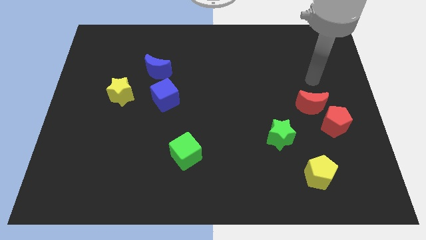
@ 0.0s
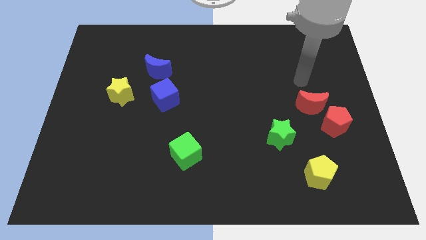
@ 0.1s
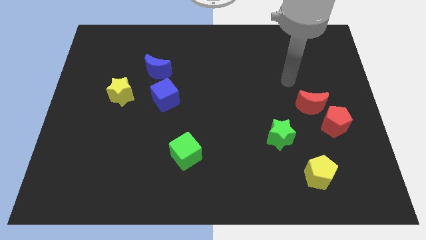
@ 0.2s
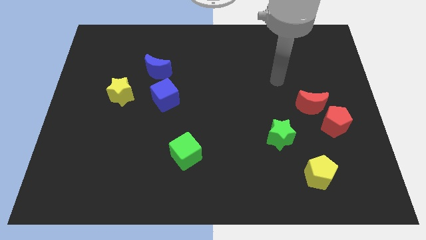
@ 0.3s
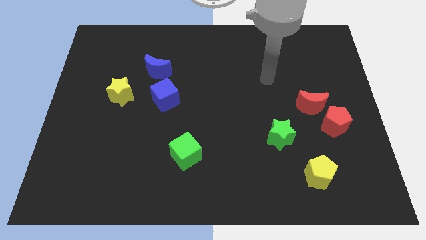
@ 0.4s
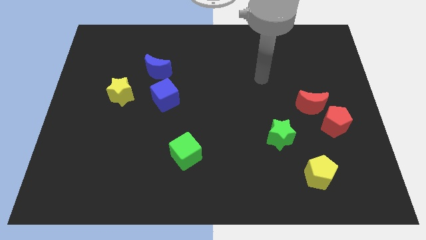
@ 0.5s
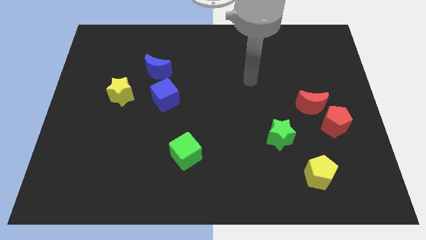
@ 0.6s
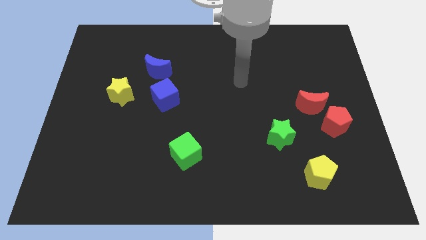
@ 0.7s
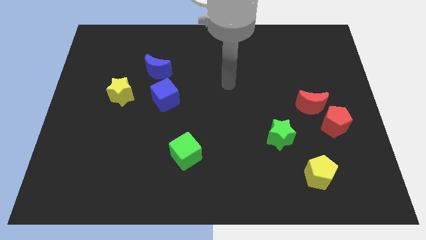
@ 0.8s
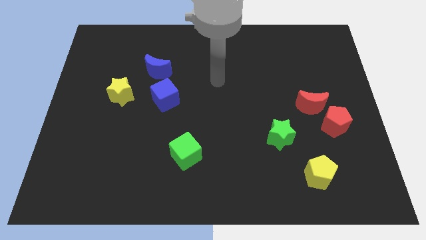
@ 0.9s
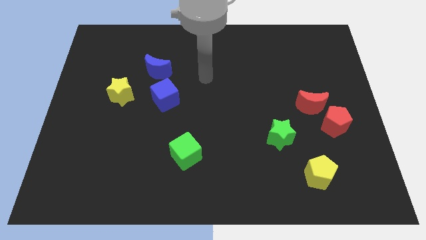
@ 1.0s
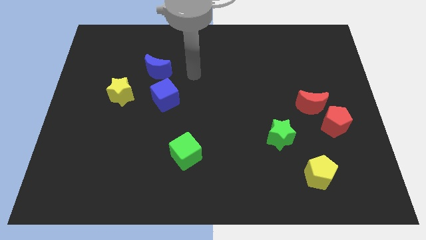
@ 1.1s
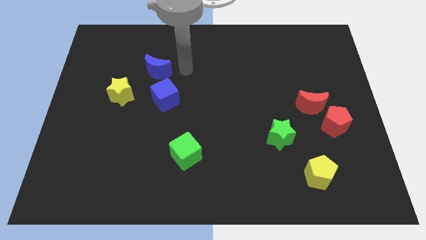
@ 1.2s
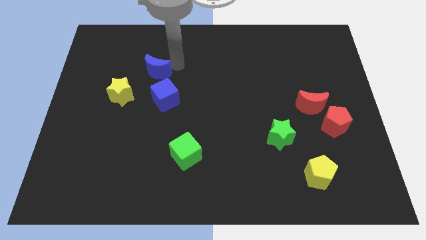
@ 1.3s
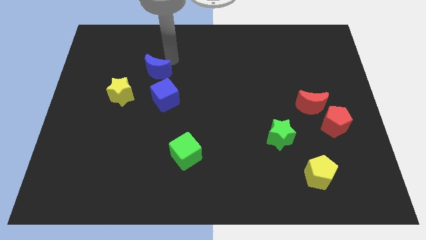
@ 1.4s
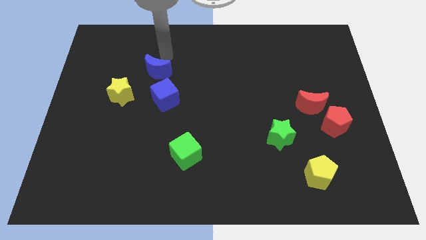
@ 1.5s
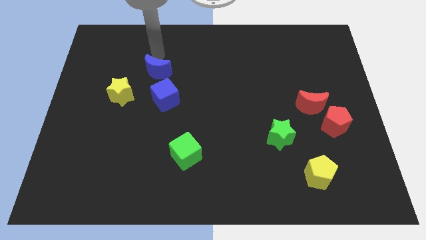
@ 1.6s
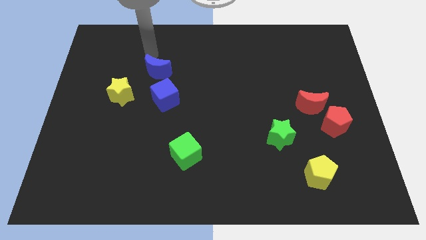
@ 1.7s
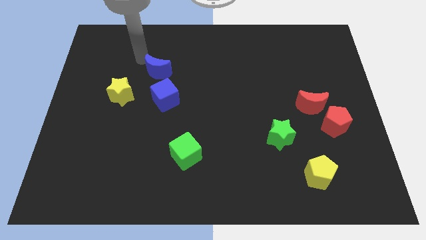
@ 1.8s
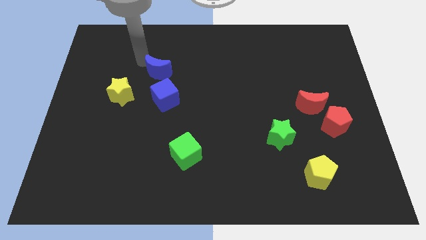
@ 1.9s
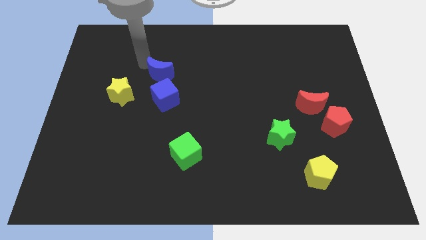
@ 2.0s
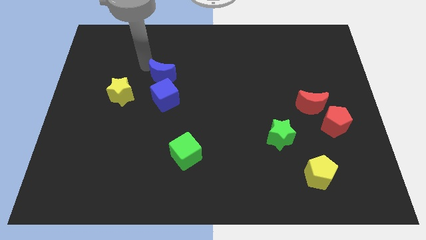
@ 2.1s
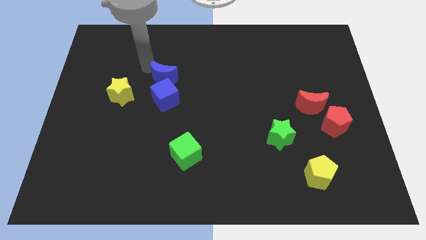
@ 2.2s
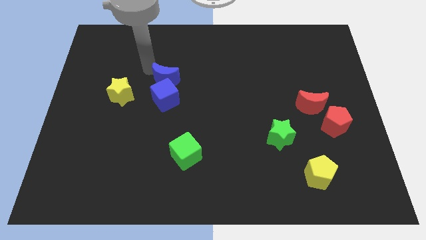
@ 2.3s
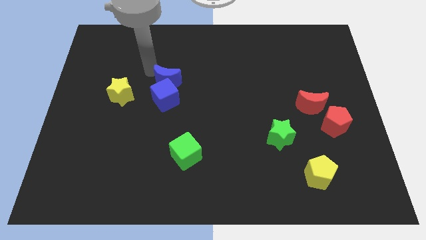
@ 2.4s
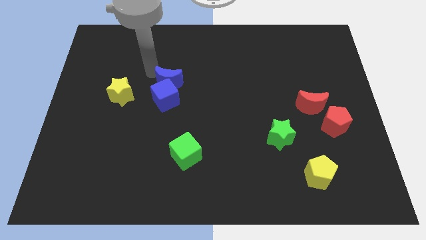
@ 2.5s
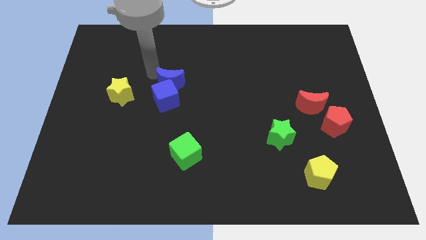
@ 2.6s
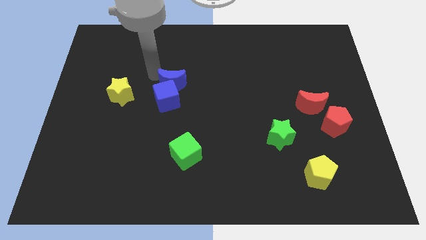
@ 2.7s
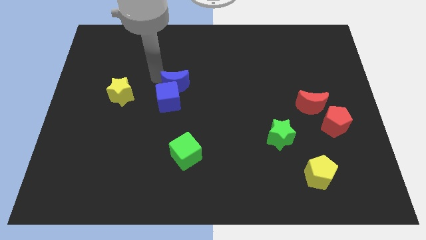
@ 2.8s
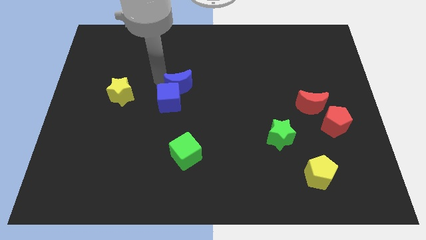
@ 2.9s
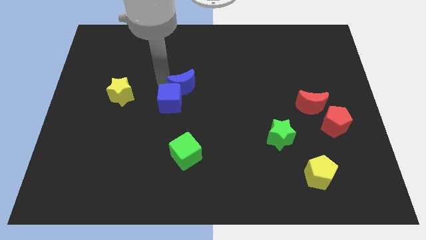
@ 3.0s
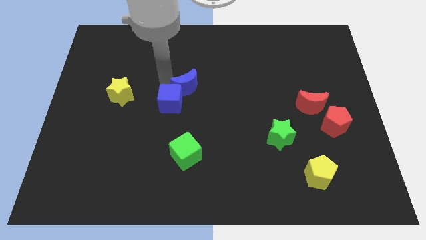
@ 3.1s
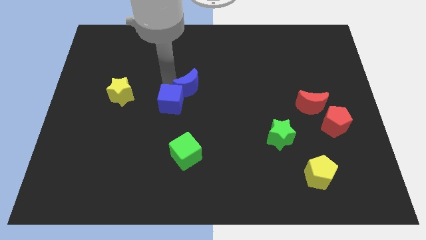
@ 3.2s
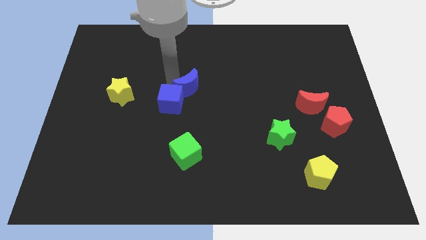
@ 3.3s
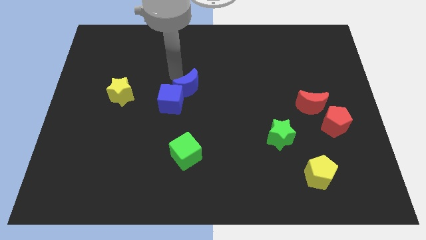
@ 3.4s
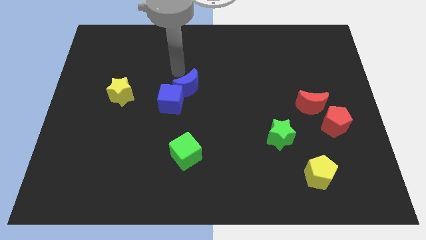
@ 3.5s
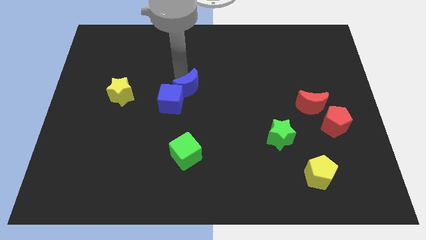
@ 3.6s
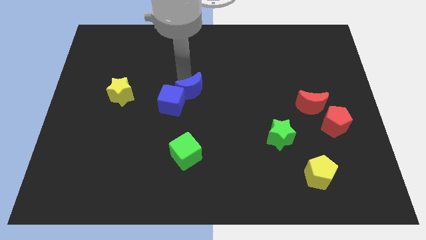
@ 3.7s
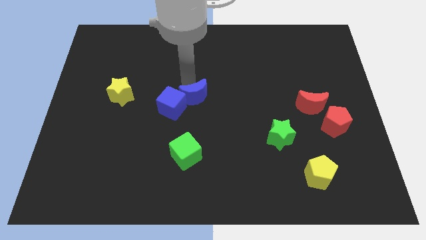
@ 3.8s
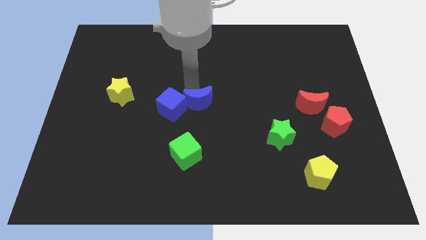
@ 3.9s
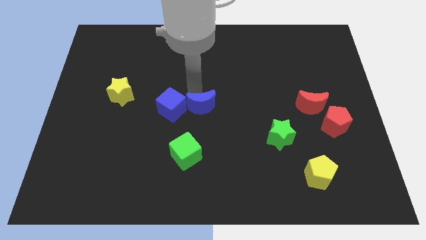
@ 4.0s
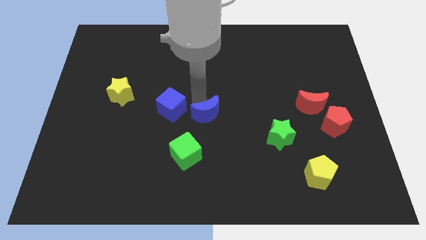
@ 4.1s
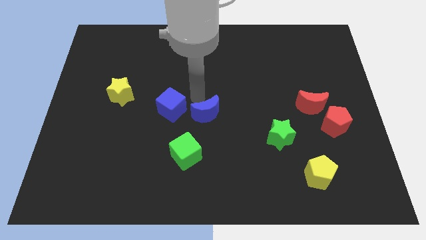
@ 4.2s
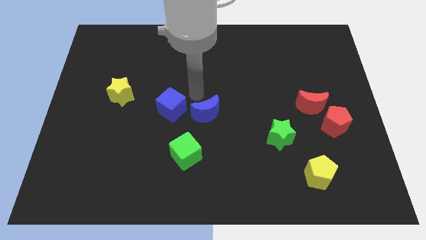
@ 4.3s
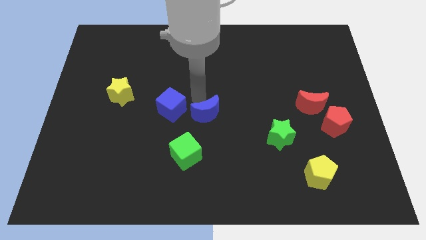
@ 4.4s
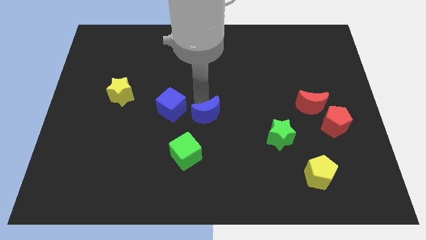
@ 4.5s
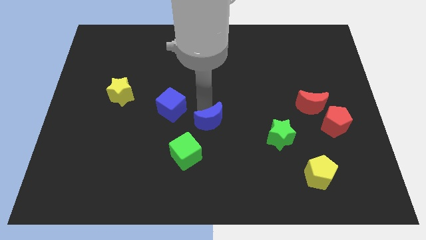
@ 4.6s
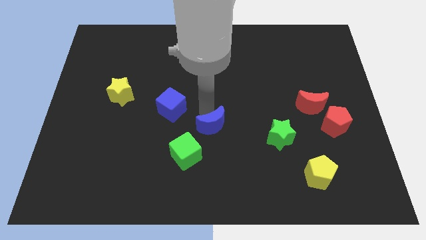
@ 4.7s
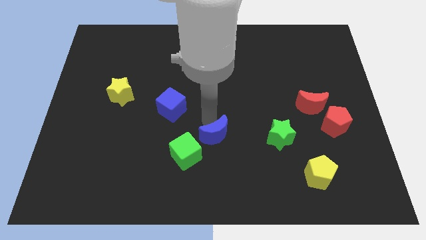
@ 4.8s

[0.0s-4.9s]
move the blue moon just right of the green cube

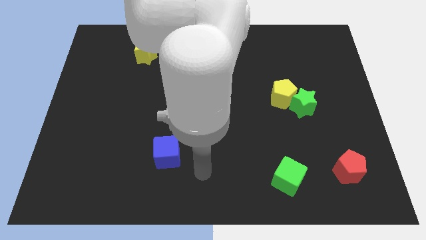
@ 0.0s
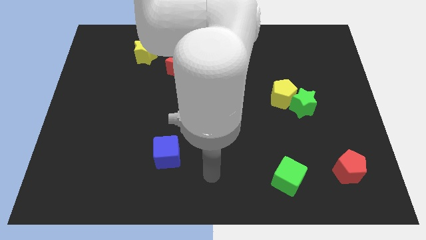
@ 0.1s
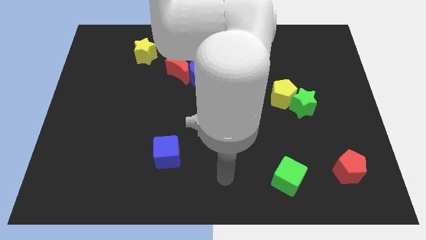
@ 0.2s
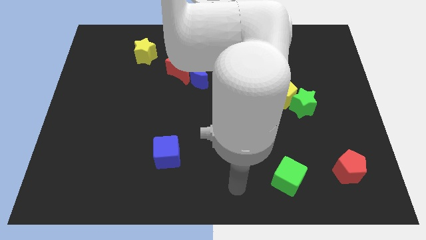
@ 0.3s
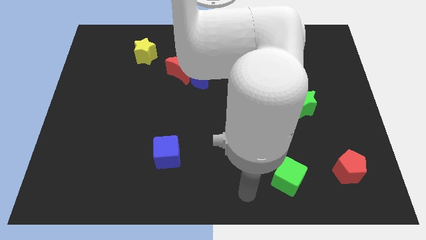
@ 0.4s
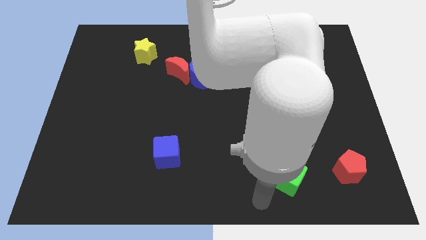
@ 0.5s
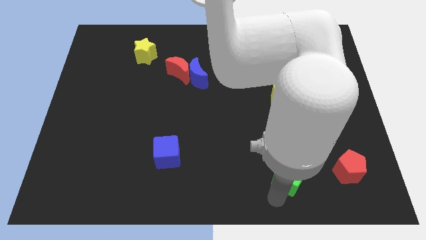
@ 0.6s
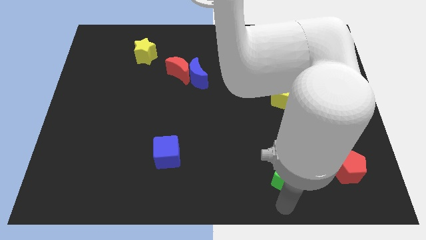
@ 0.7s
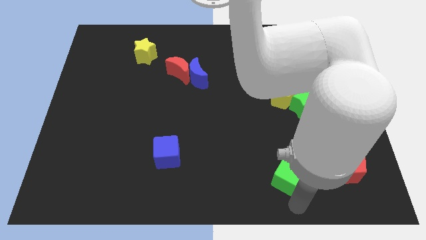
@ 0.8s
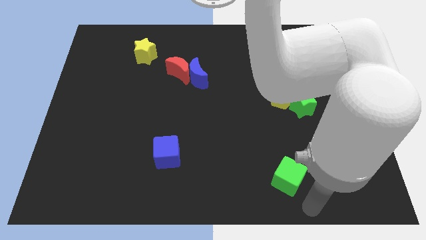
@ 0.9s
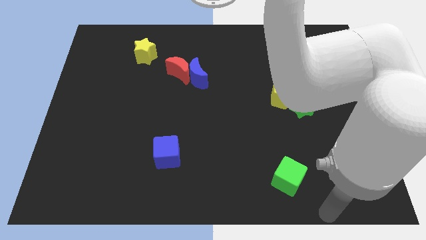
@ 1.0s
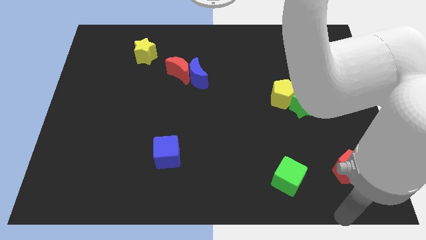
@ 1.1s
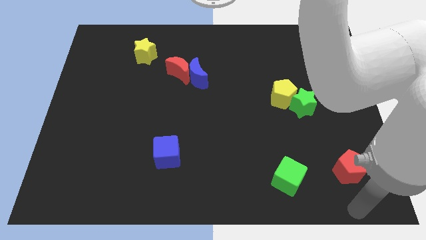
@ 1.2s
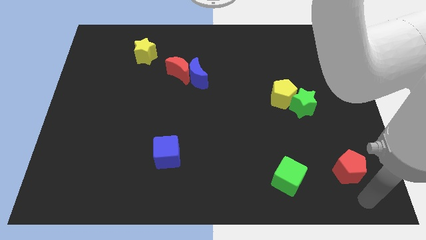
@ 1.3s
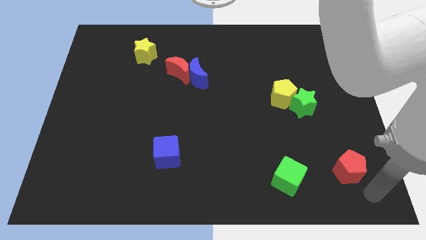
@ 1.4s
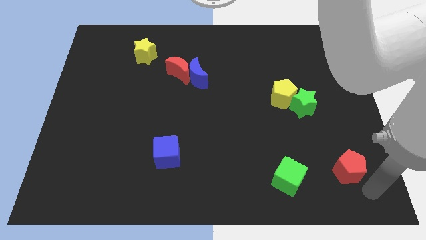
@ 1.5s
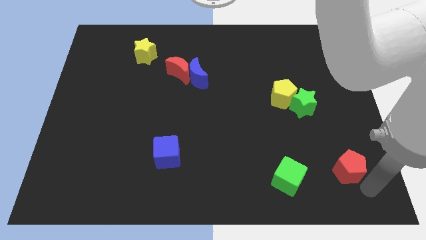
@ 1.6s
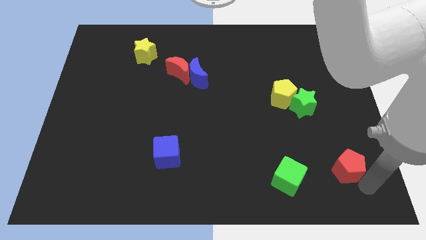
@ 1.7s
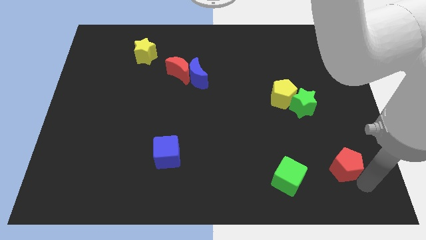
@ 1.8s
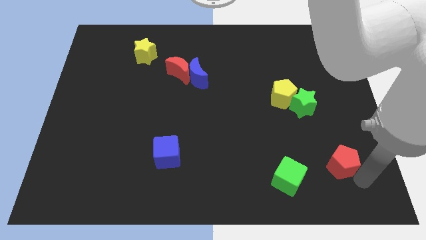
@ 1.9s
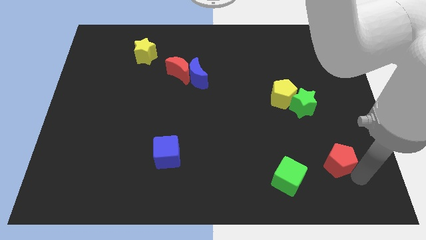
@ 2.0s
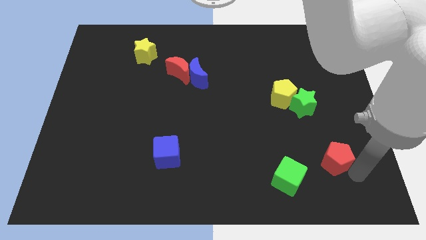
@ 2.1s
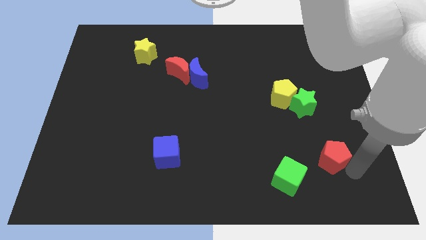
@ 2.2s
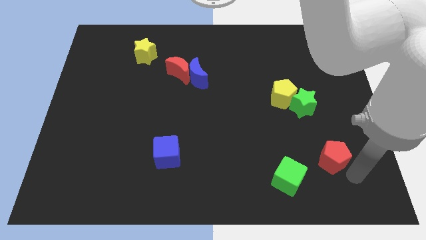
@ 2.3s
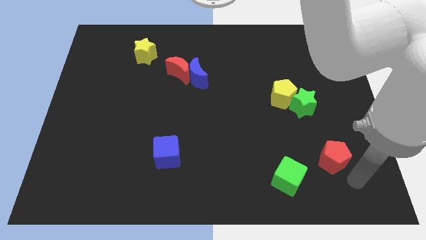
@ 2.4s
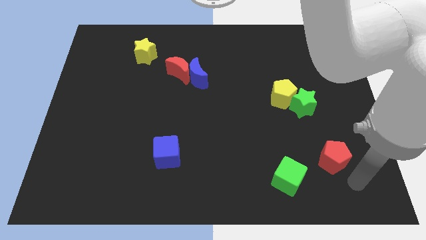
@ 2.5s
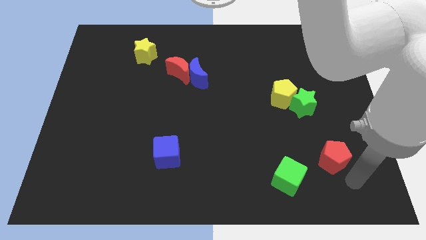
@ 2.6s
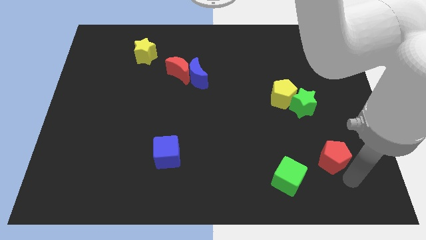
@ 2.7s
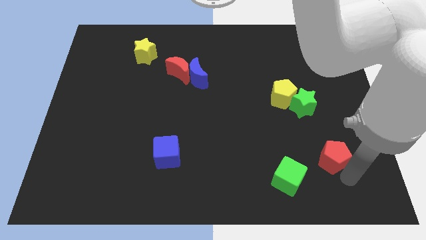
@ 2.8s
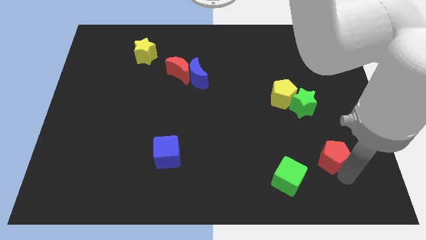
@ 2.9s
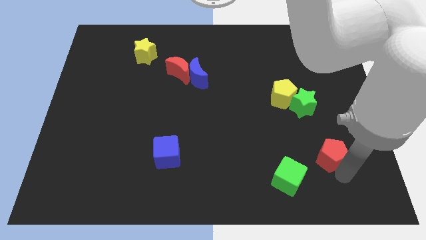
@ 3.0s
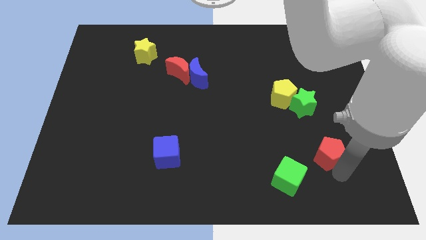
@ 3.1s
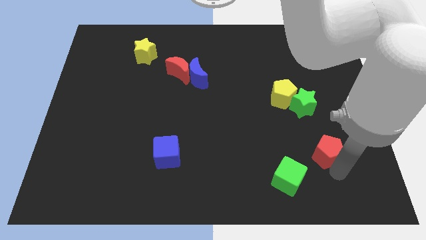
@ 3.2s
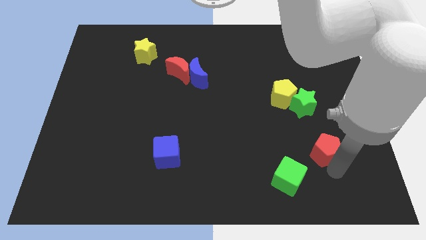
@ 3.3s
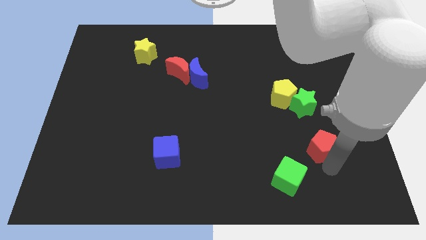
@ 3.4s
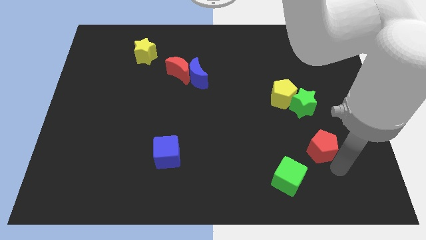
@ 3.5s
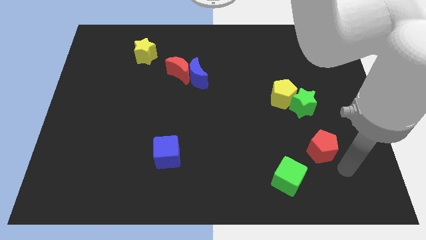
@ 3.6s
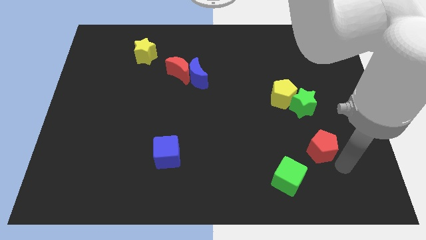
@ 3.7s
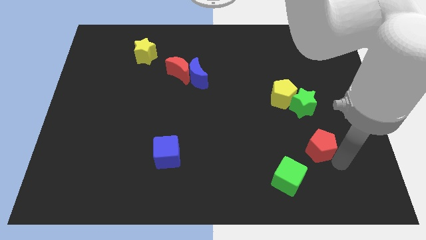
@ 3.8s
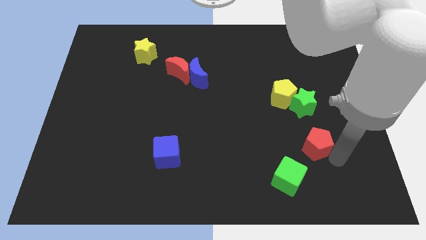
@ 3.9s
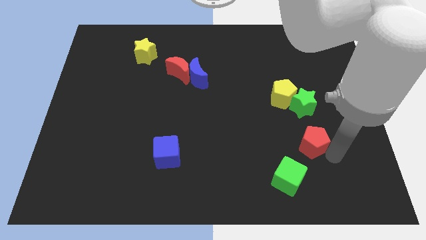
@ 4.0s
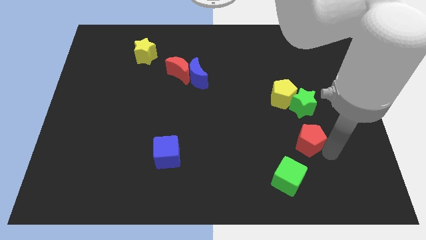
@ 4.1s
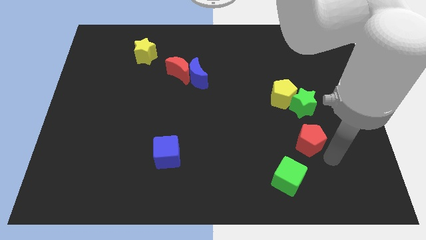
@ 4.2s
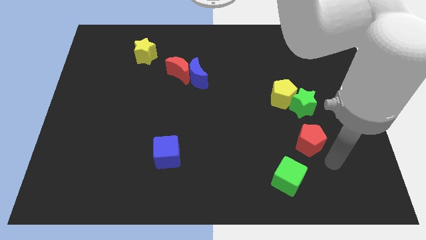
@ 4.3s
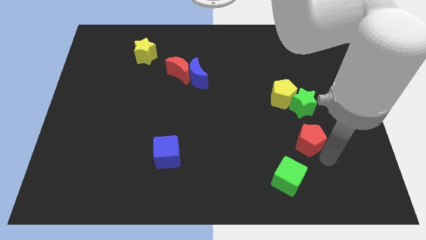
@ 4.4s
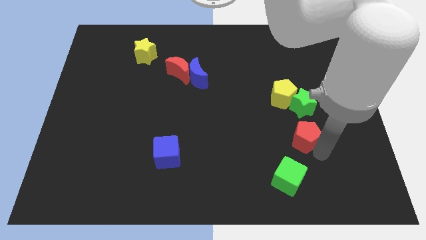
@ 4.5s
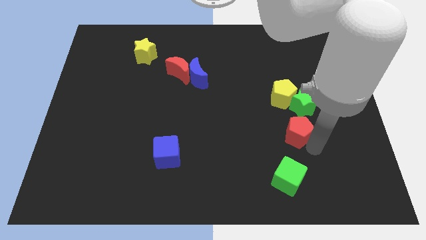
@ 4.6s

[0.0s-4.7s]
move the red pentagon to the bottom left of the green star
